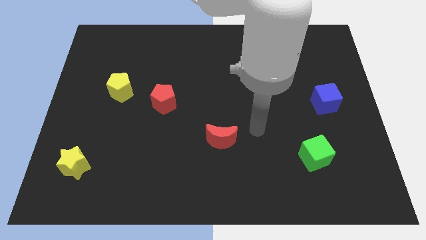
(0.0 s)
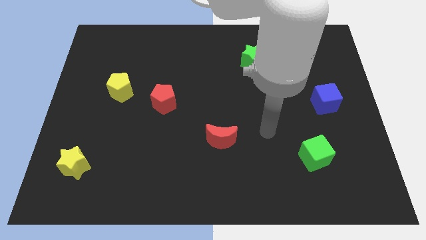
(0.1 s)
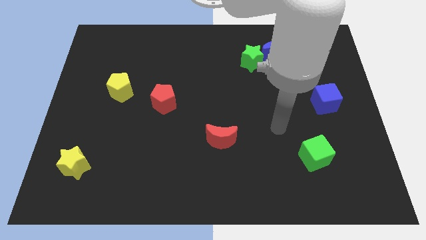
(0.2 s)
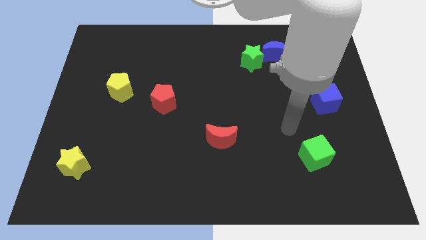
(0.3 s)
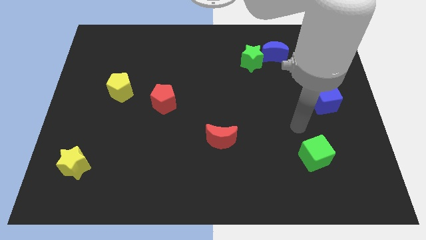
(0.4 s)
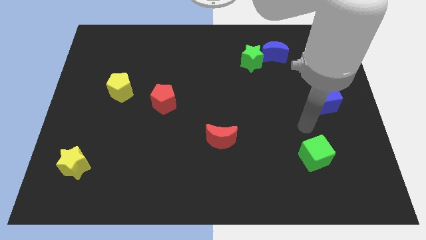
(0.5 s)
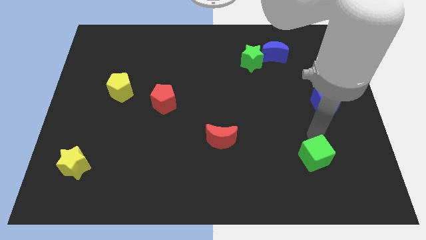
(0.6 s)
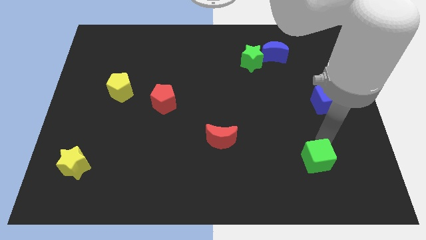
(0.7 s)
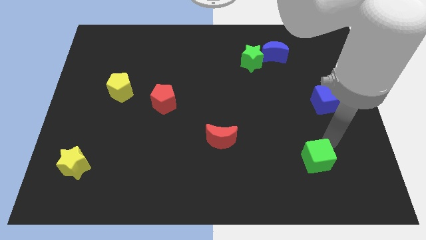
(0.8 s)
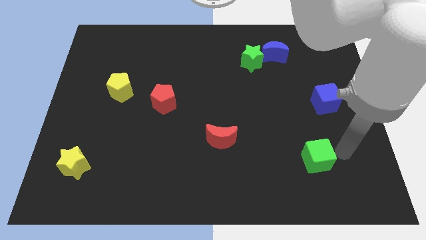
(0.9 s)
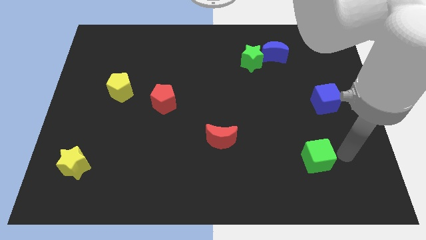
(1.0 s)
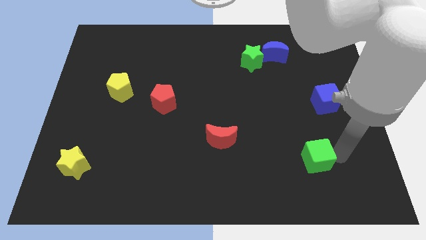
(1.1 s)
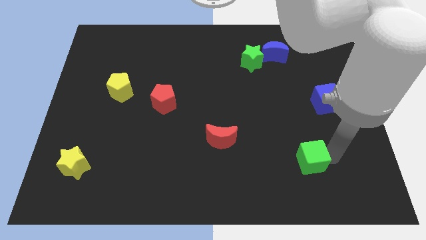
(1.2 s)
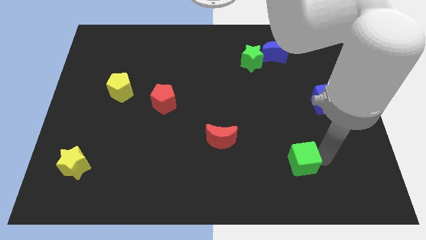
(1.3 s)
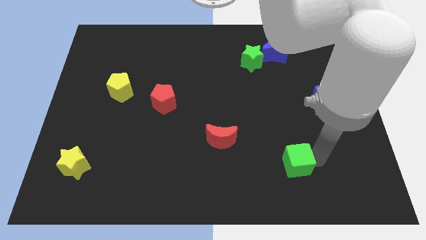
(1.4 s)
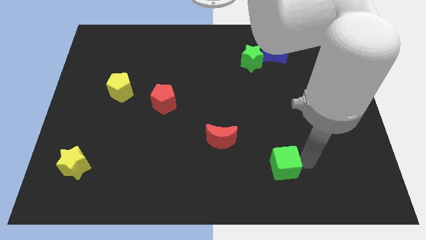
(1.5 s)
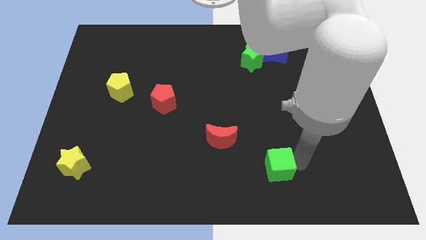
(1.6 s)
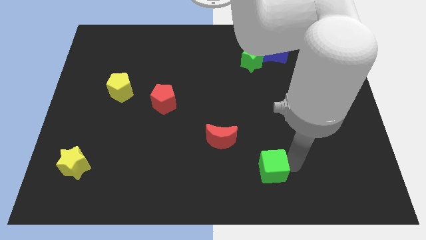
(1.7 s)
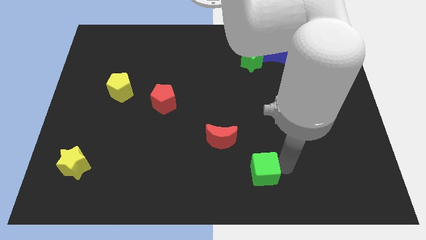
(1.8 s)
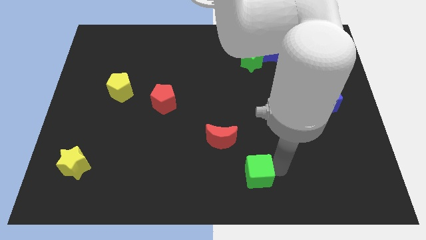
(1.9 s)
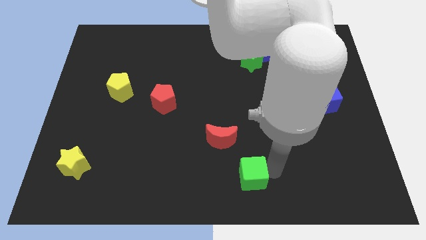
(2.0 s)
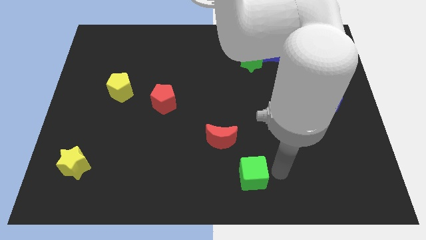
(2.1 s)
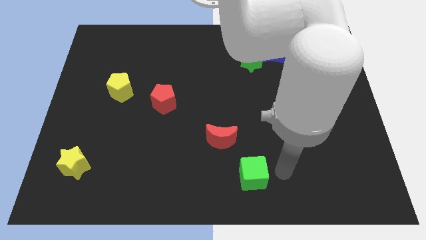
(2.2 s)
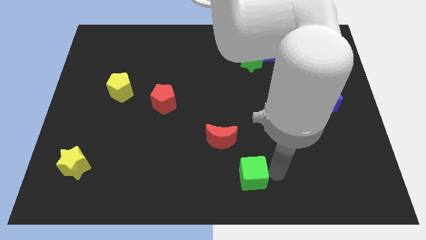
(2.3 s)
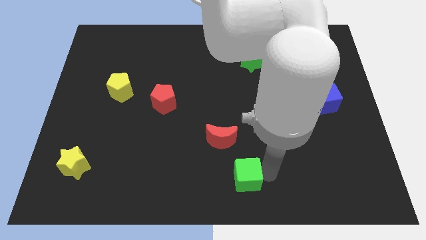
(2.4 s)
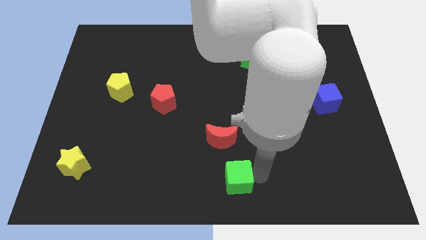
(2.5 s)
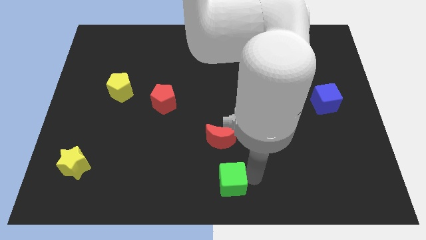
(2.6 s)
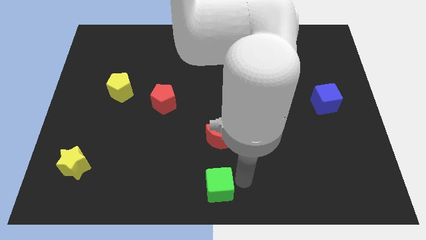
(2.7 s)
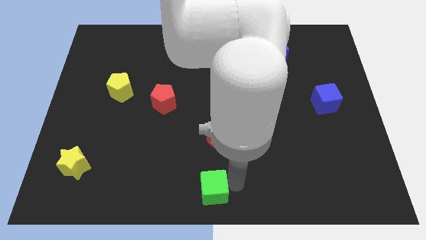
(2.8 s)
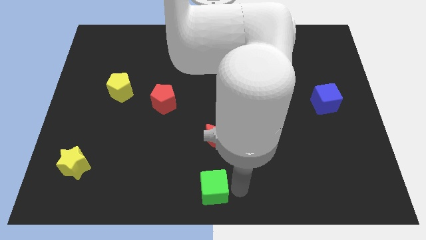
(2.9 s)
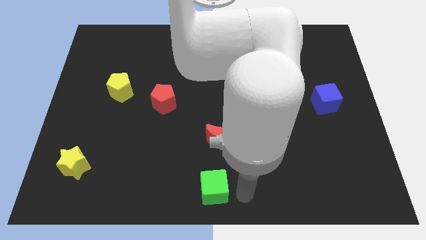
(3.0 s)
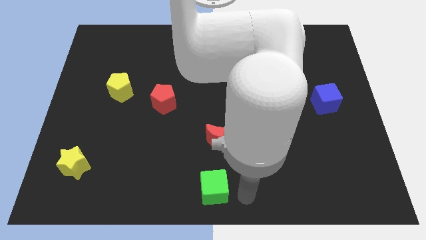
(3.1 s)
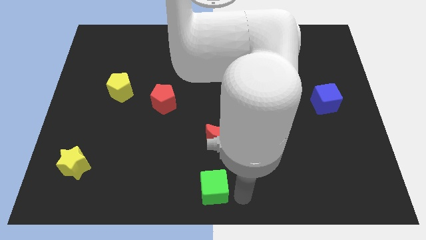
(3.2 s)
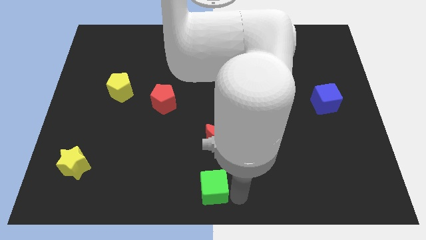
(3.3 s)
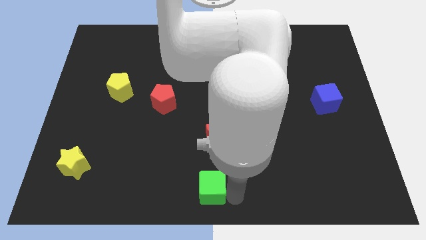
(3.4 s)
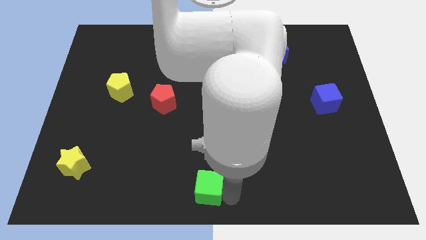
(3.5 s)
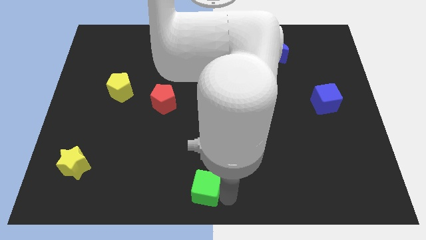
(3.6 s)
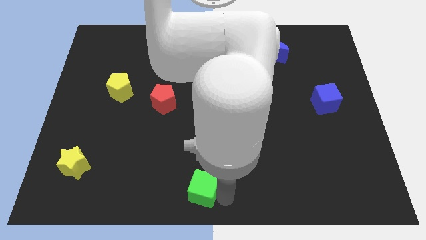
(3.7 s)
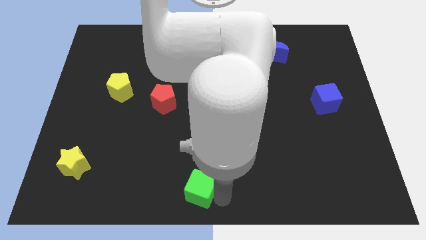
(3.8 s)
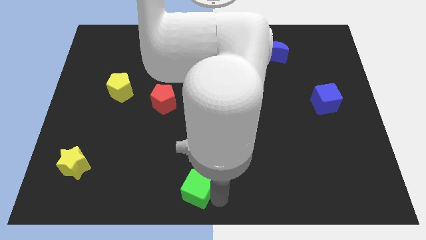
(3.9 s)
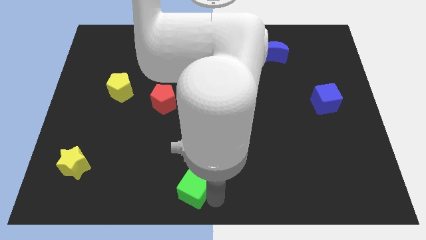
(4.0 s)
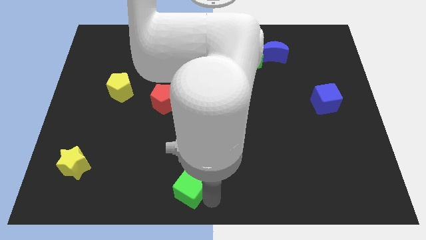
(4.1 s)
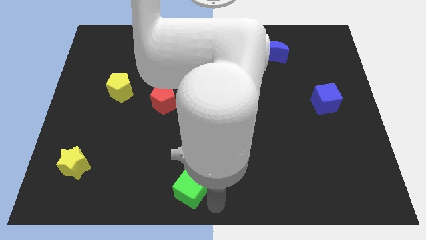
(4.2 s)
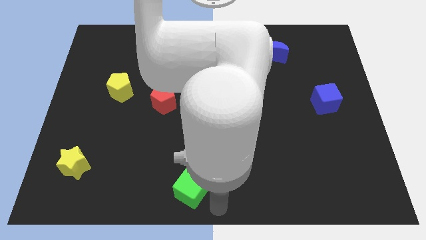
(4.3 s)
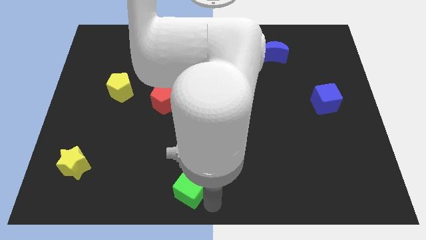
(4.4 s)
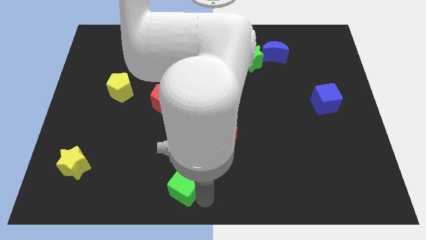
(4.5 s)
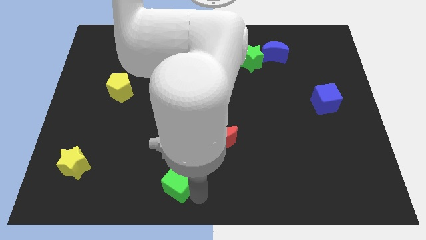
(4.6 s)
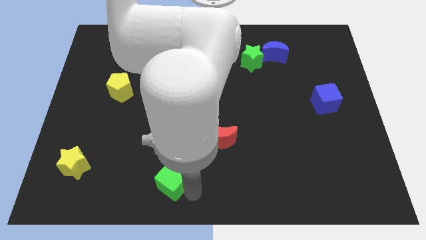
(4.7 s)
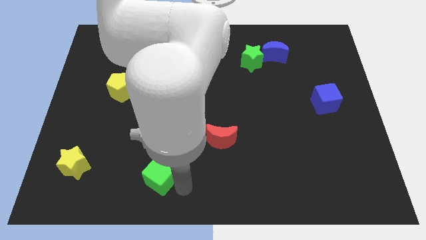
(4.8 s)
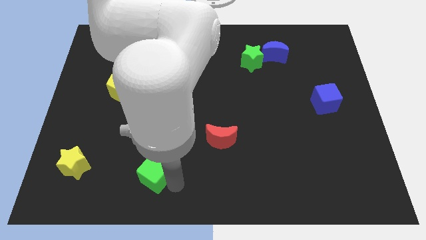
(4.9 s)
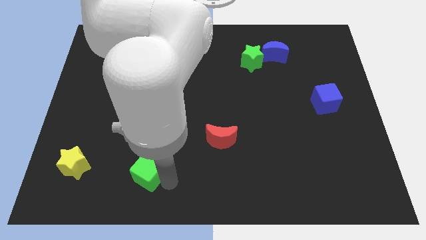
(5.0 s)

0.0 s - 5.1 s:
slide the green cube to the right side of the yellow star

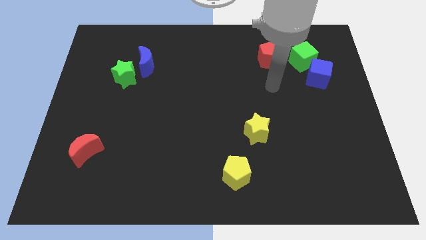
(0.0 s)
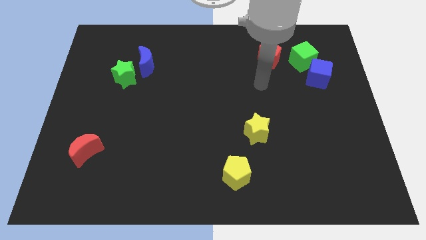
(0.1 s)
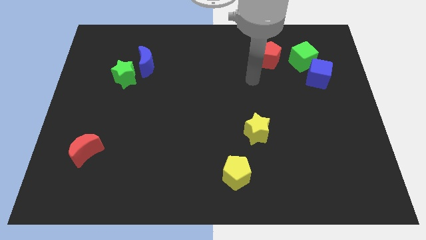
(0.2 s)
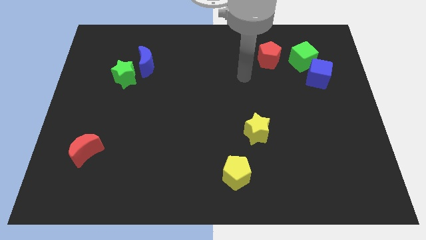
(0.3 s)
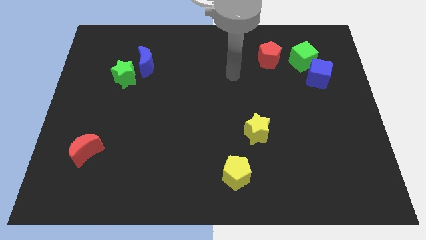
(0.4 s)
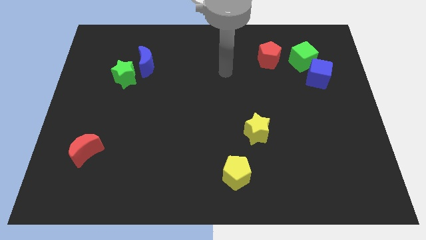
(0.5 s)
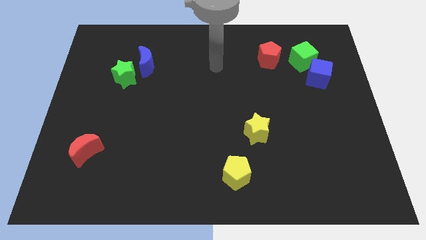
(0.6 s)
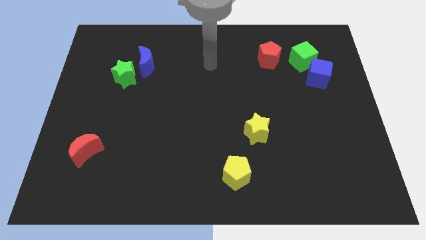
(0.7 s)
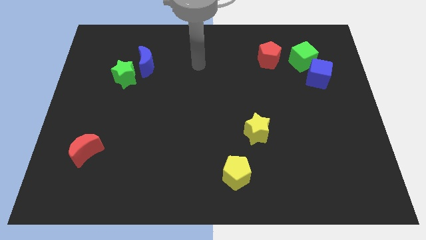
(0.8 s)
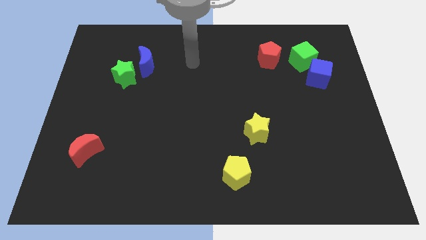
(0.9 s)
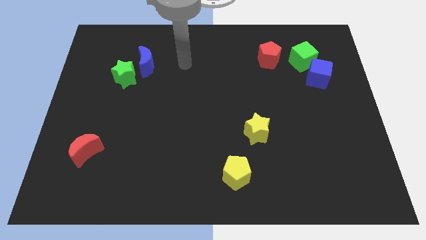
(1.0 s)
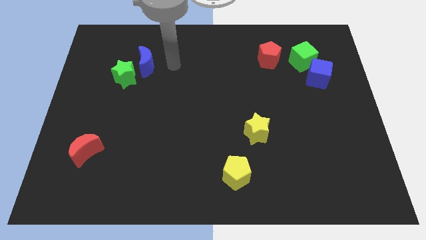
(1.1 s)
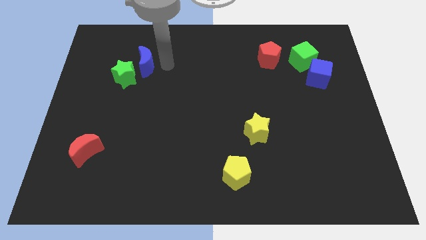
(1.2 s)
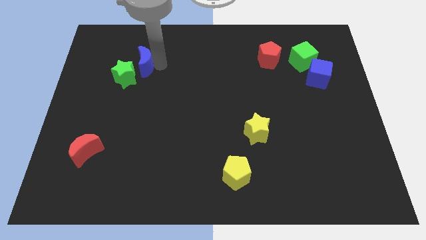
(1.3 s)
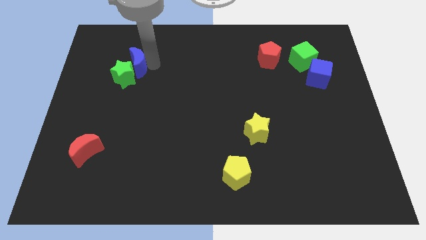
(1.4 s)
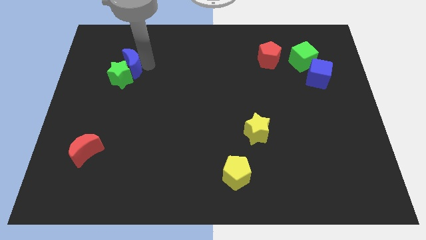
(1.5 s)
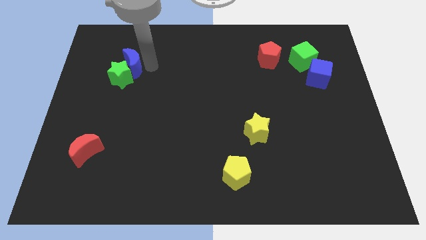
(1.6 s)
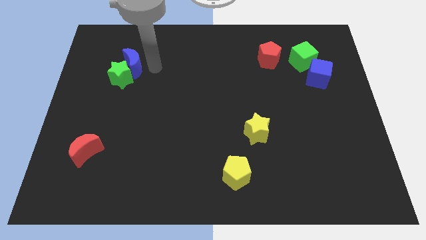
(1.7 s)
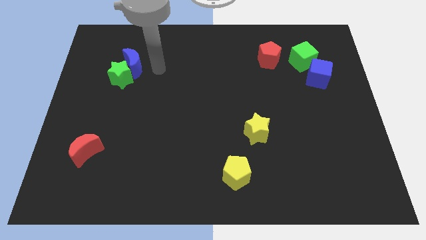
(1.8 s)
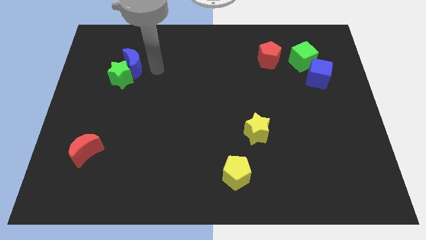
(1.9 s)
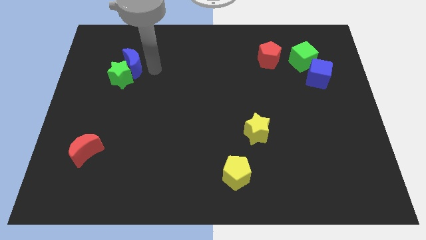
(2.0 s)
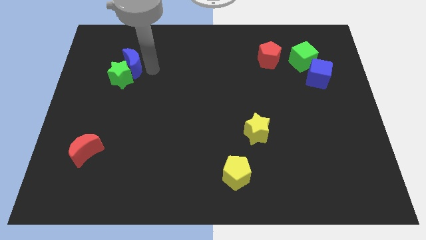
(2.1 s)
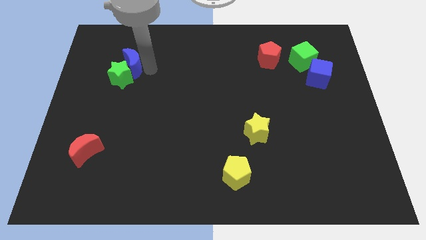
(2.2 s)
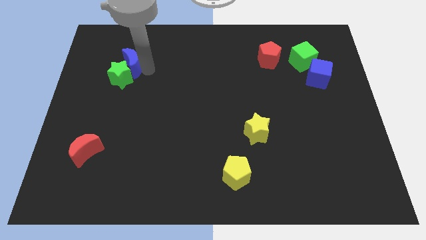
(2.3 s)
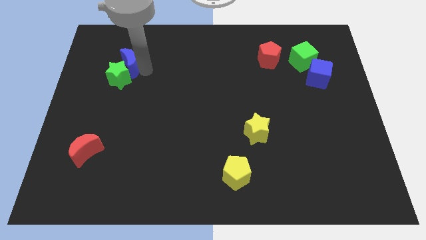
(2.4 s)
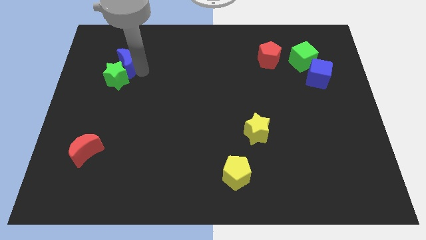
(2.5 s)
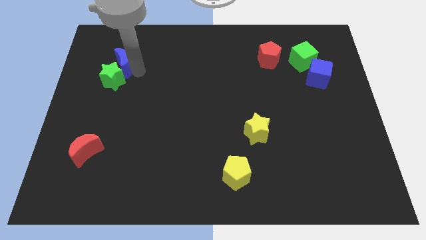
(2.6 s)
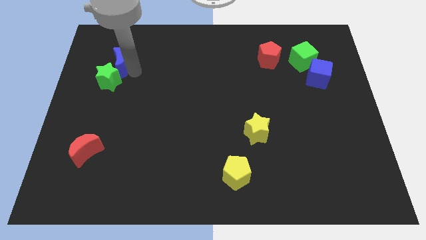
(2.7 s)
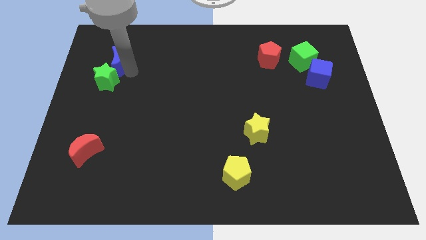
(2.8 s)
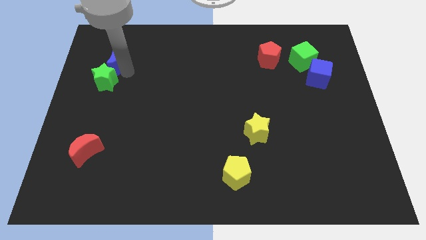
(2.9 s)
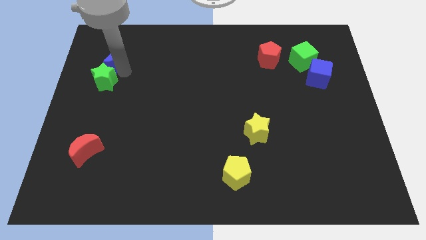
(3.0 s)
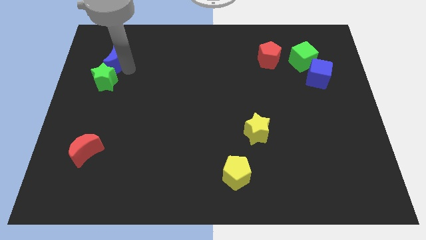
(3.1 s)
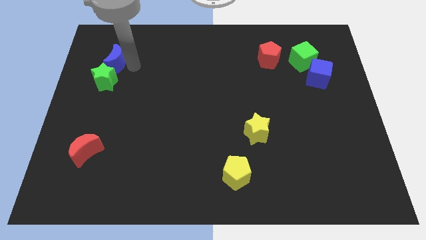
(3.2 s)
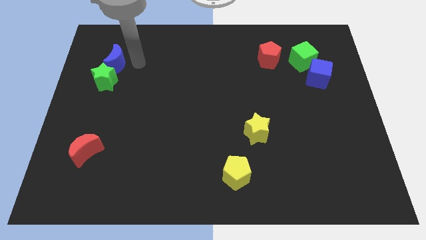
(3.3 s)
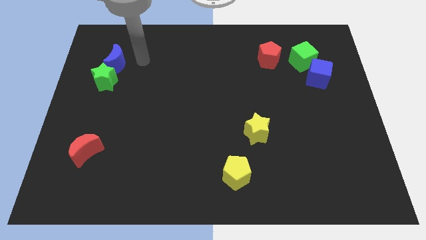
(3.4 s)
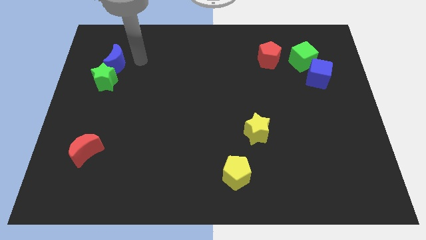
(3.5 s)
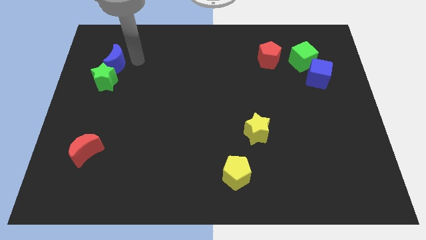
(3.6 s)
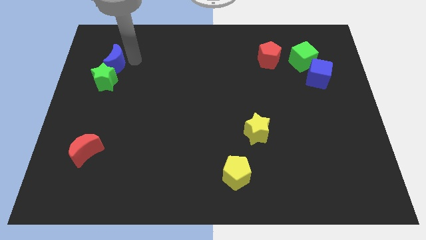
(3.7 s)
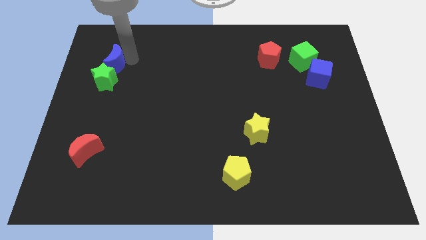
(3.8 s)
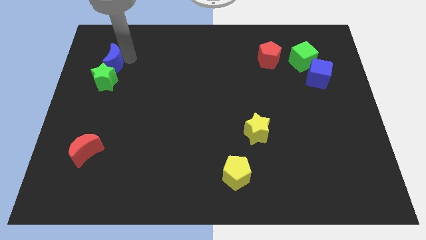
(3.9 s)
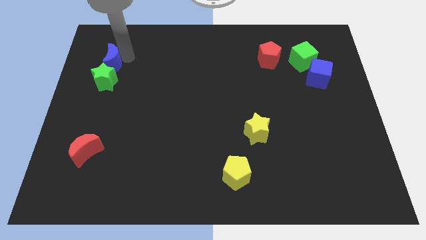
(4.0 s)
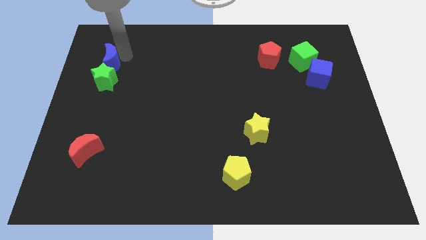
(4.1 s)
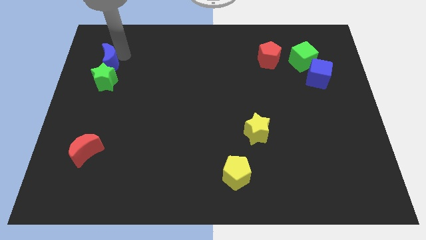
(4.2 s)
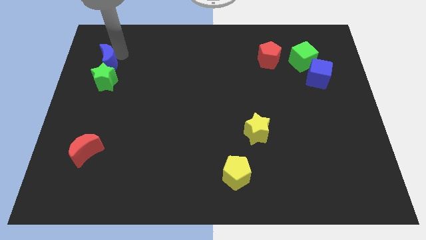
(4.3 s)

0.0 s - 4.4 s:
move the blue moon to the top left of the green star
